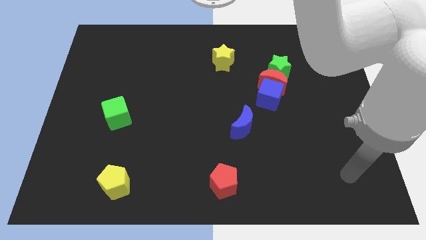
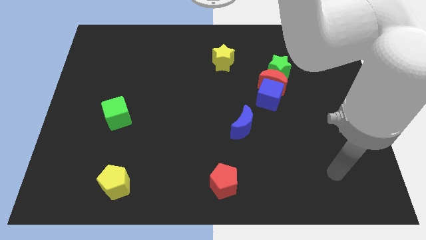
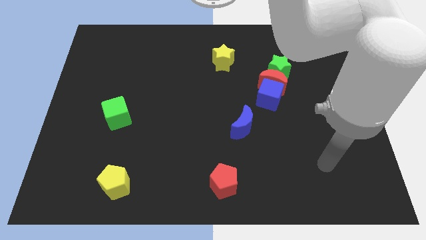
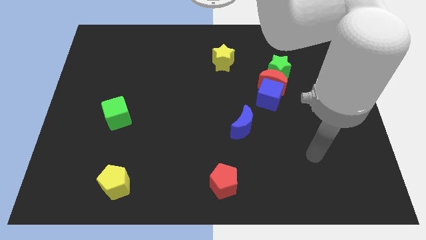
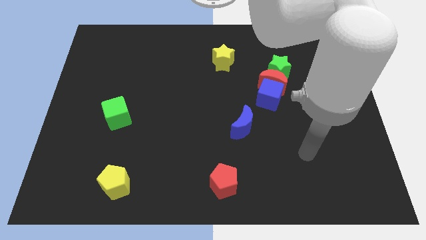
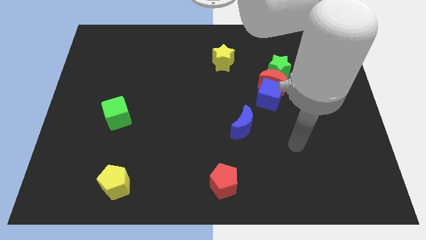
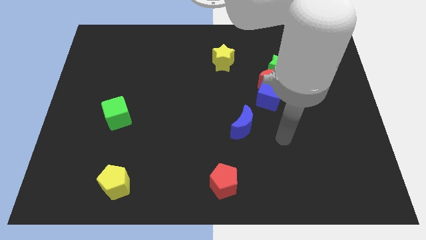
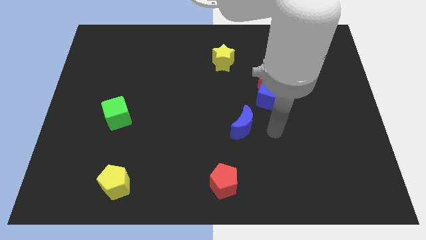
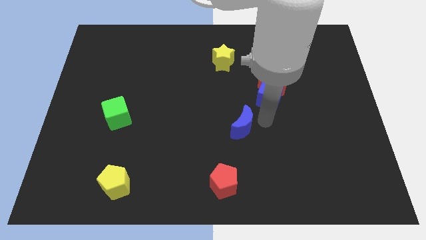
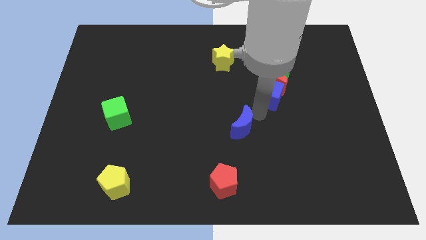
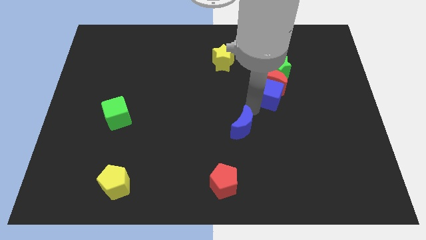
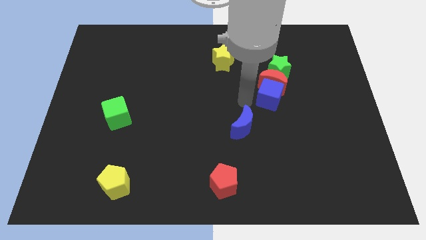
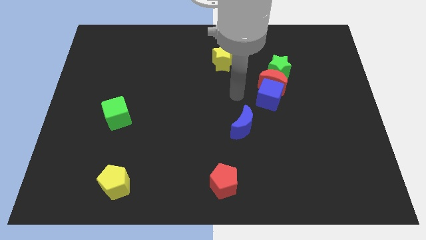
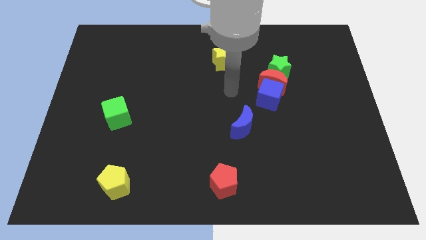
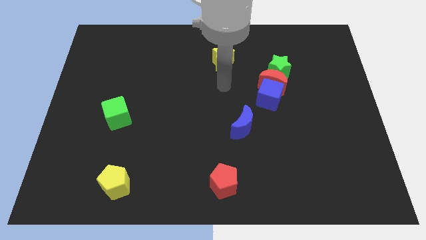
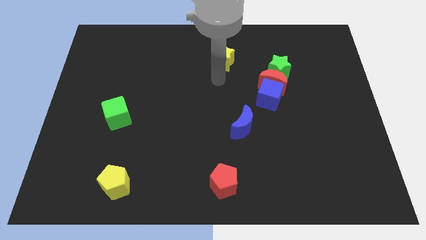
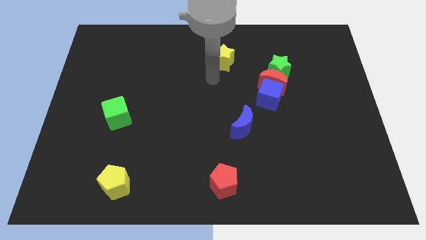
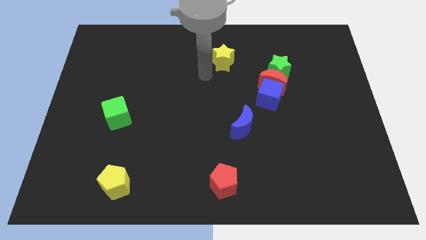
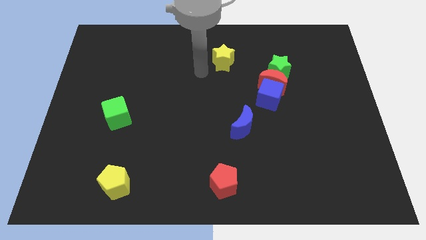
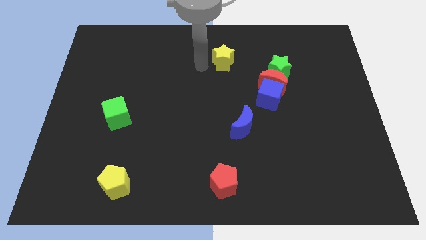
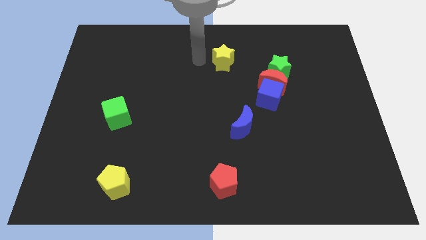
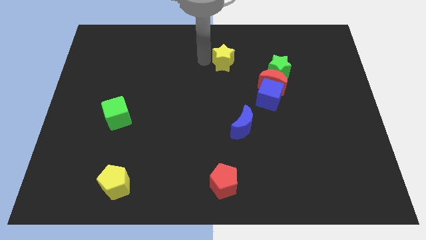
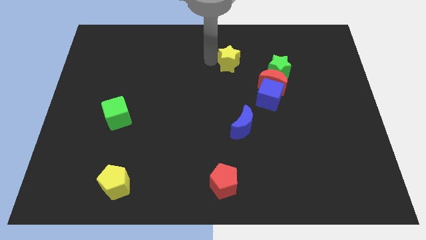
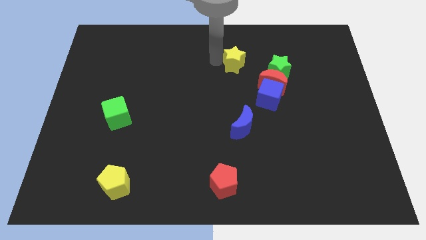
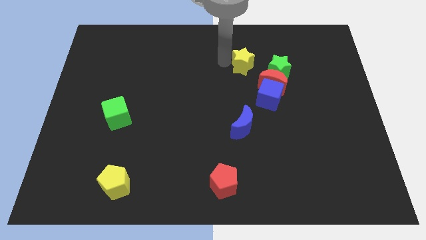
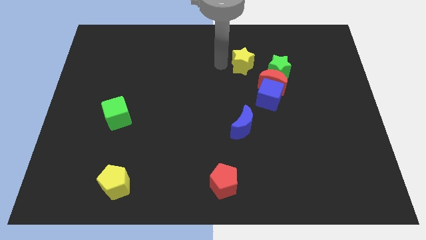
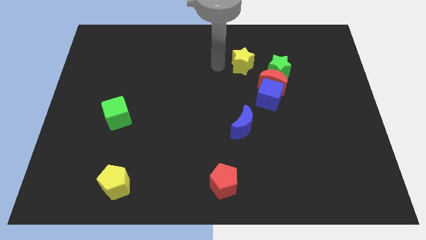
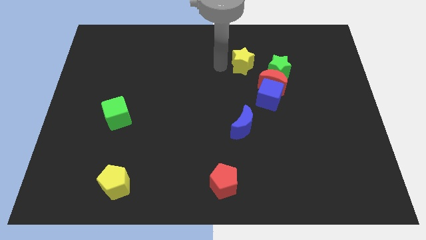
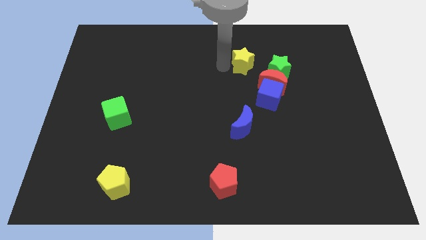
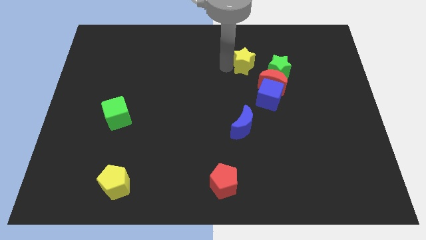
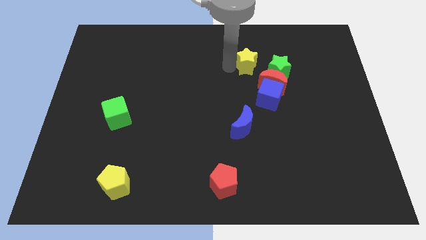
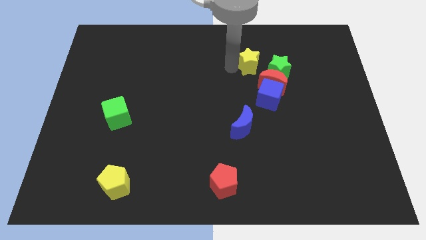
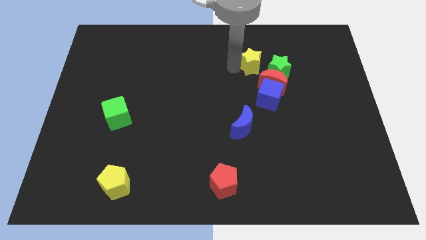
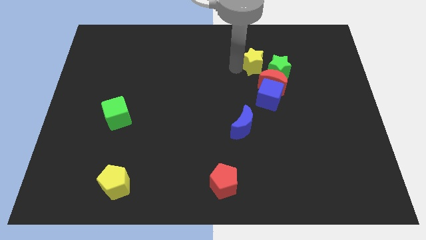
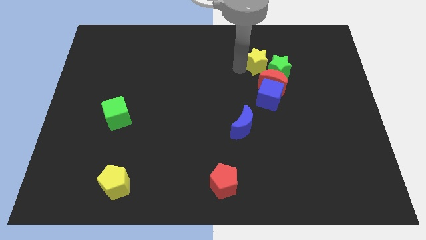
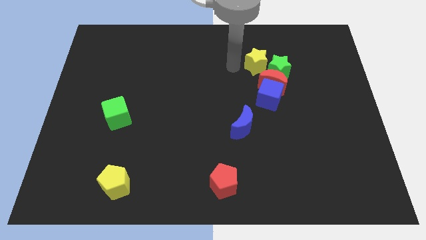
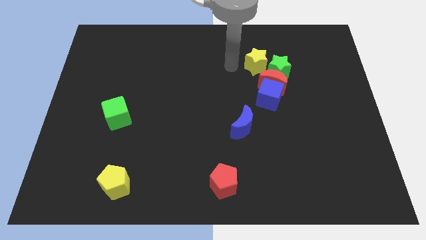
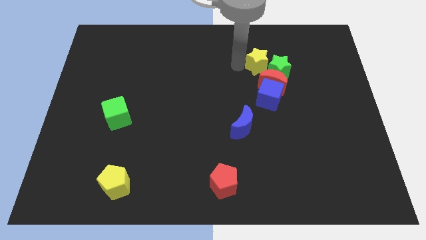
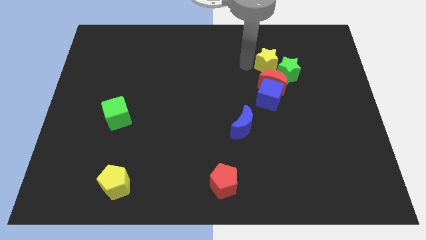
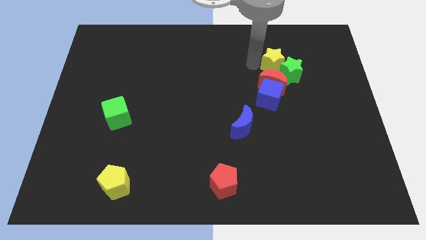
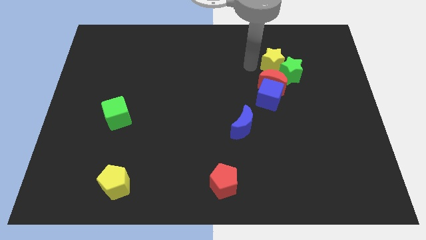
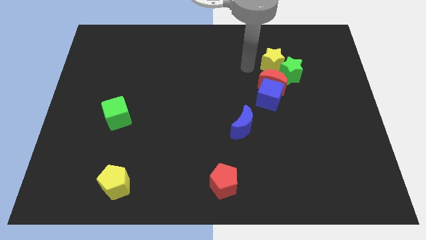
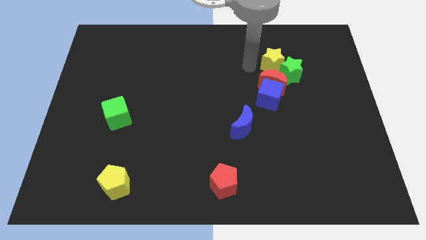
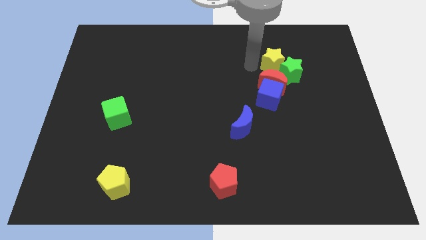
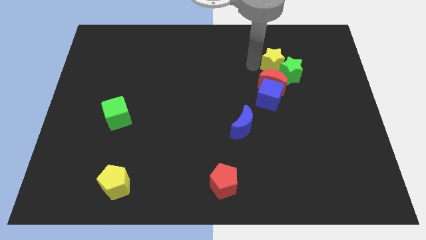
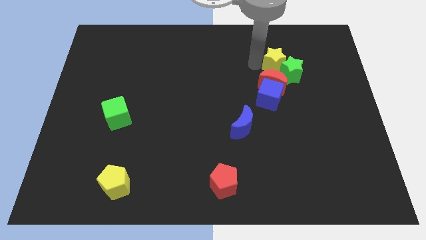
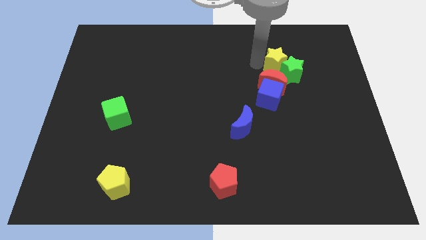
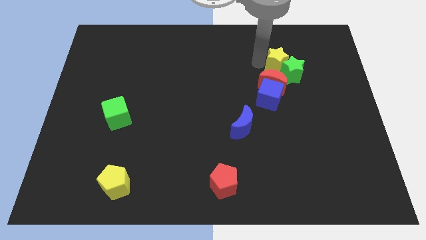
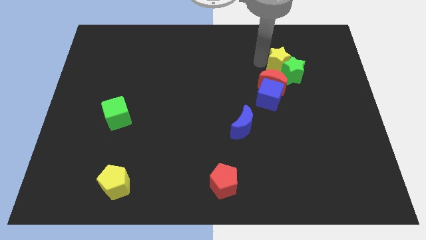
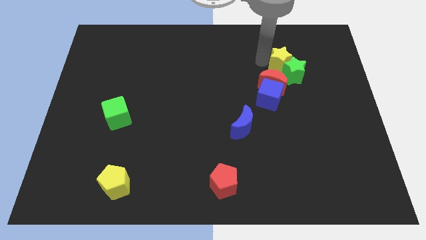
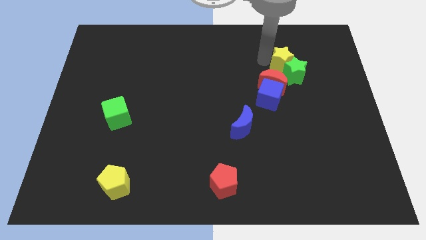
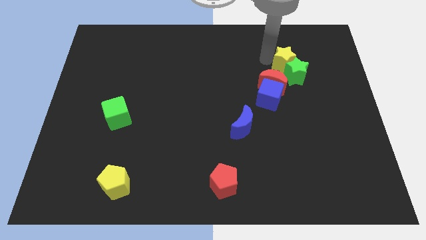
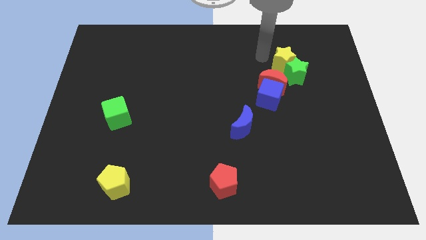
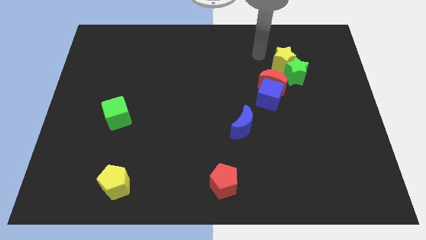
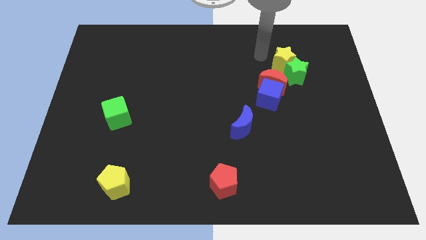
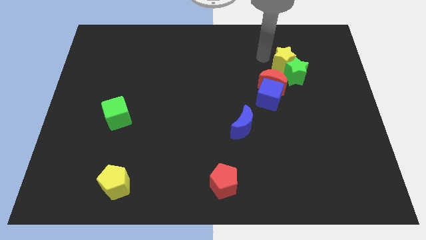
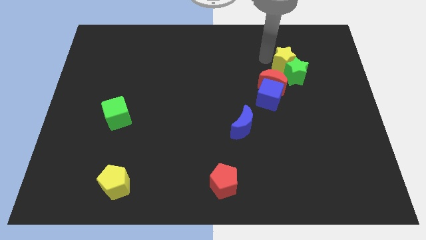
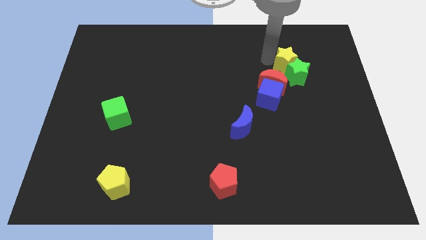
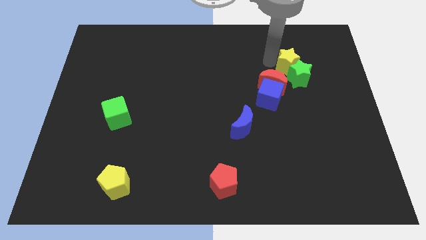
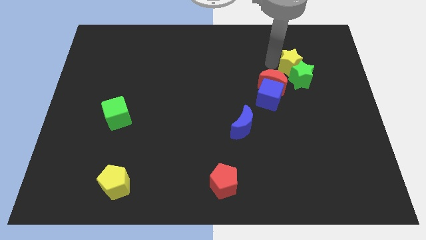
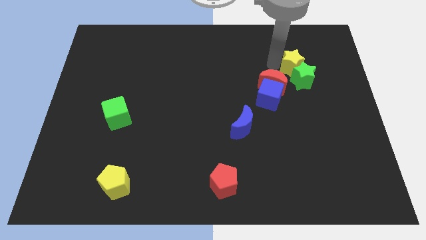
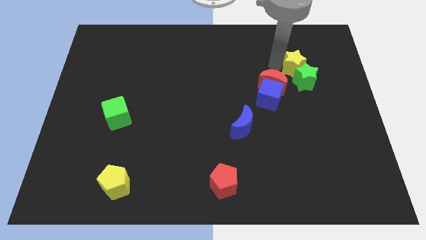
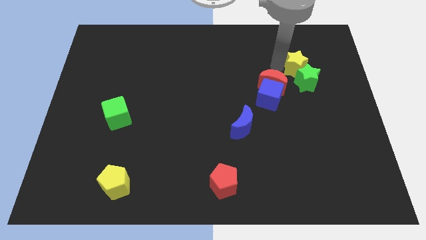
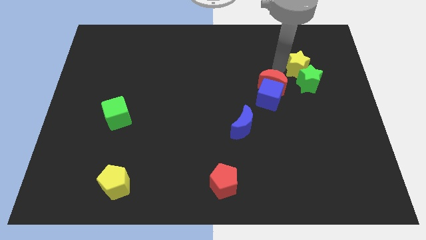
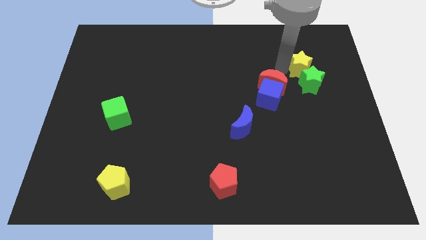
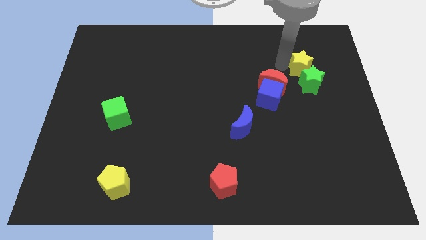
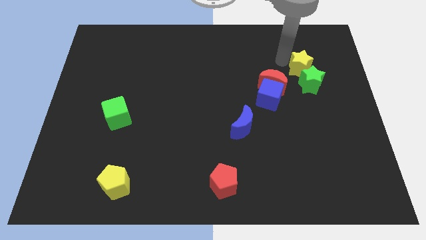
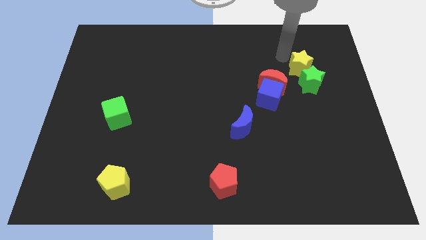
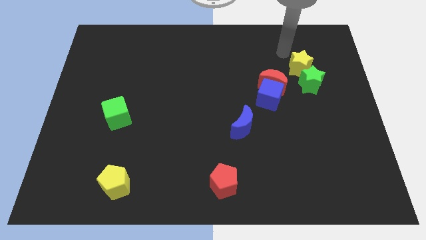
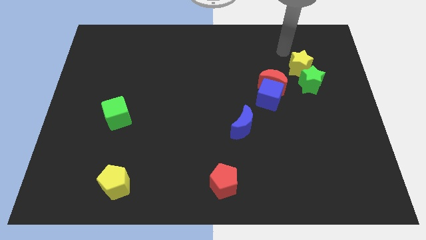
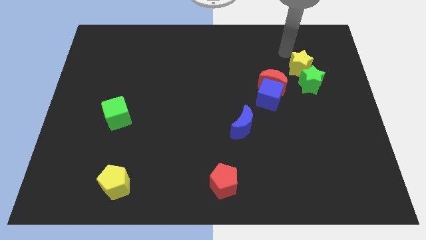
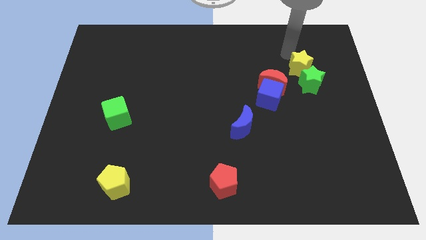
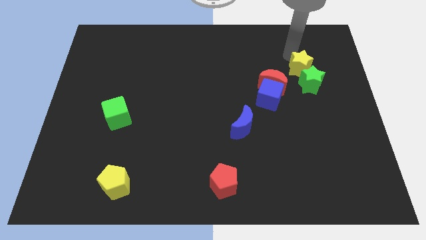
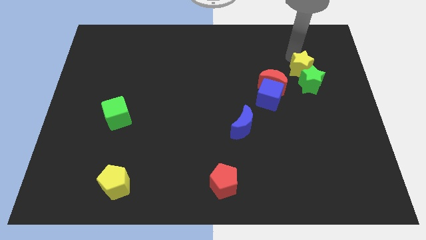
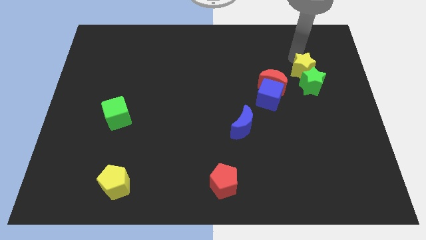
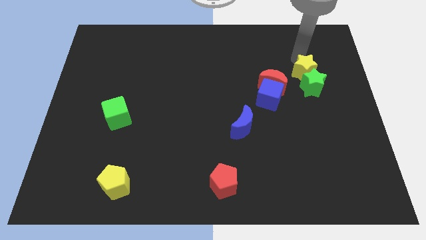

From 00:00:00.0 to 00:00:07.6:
push the yellow star right of the red moon
